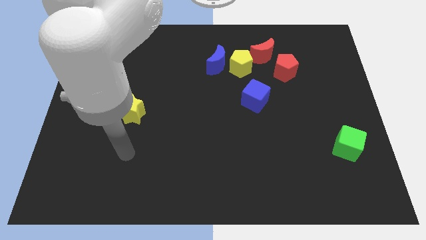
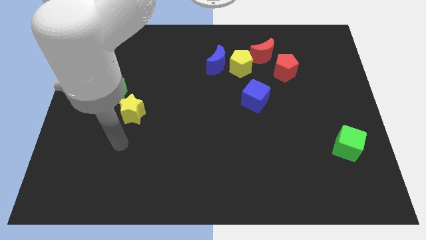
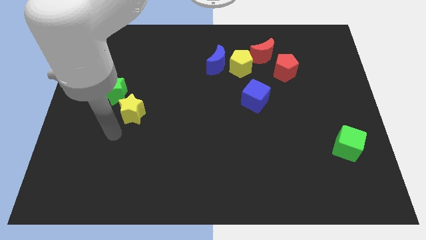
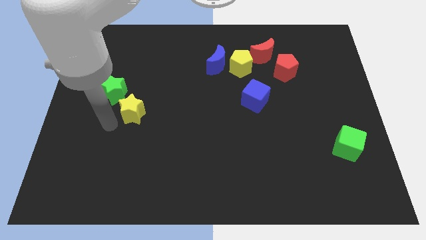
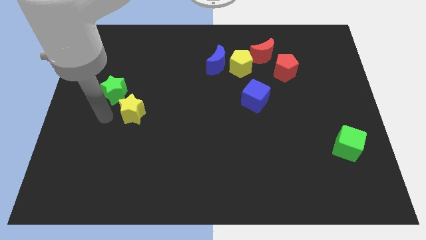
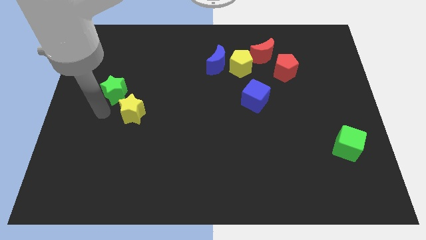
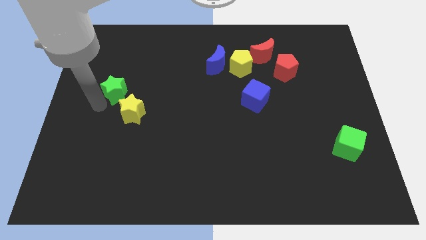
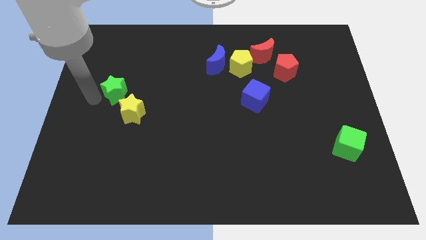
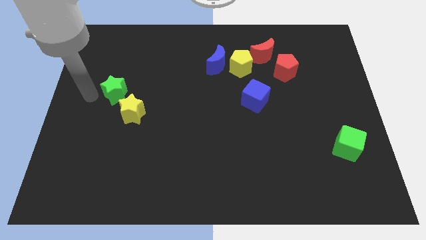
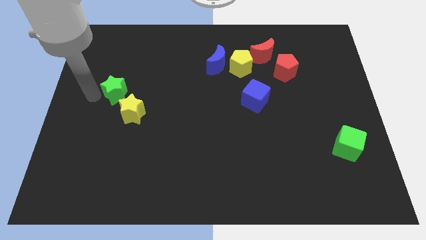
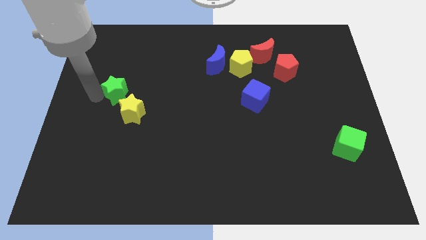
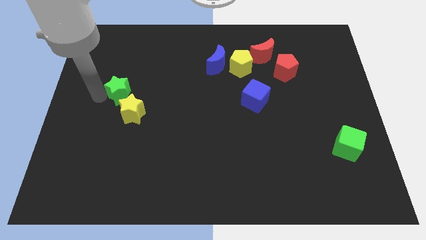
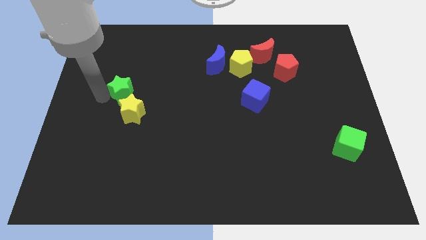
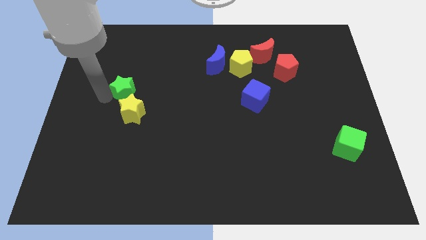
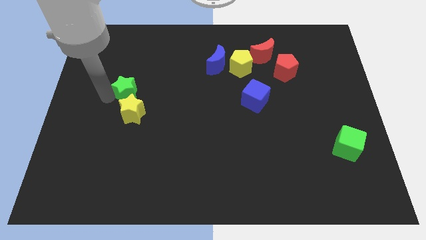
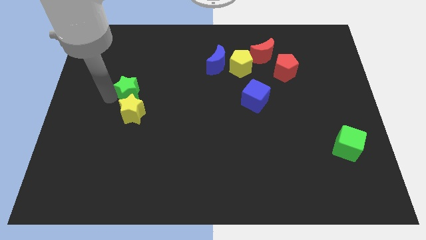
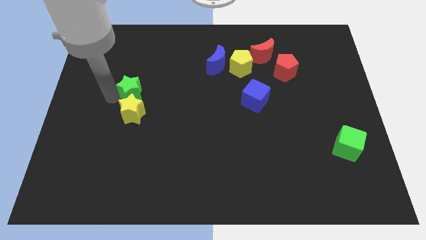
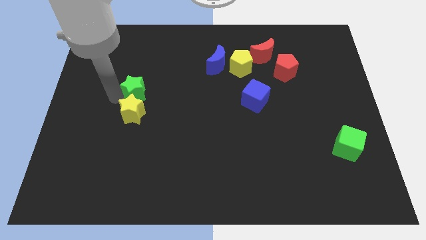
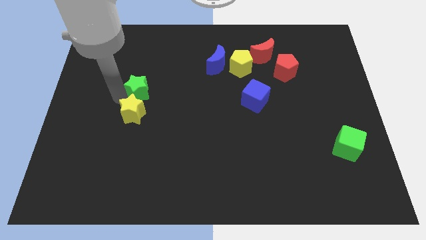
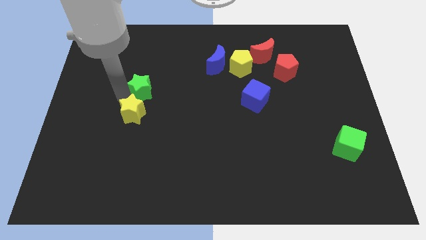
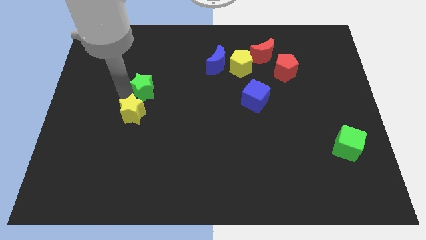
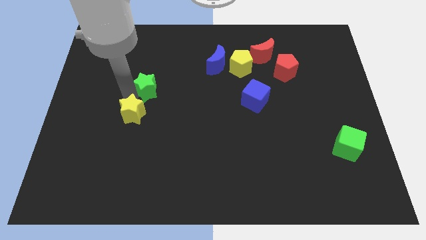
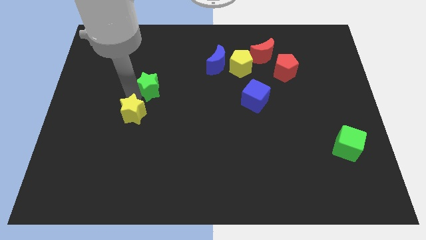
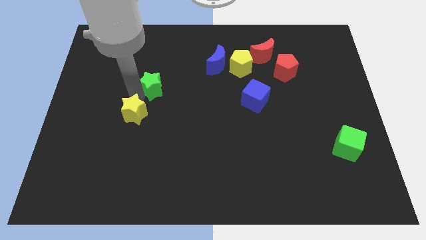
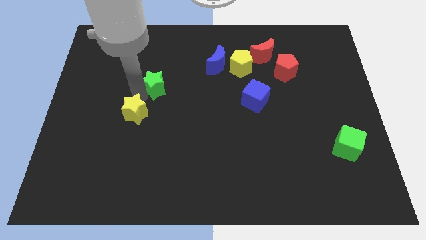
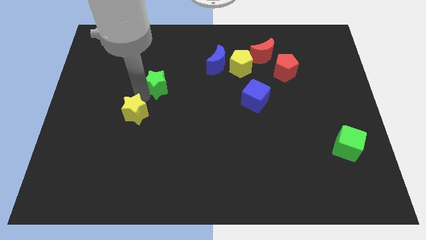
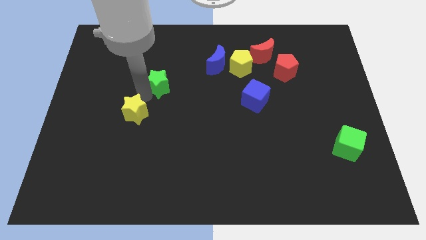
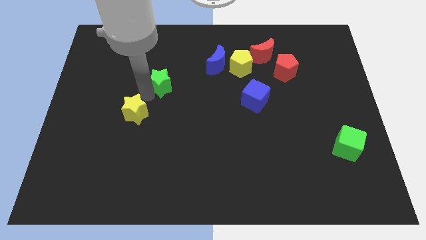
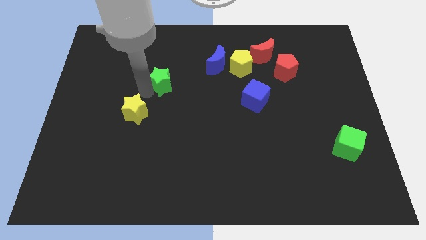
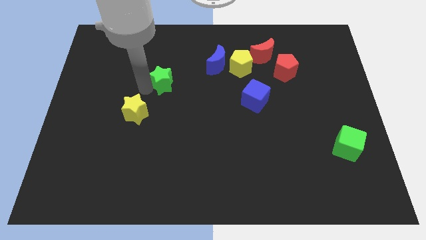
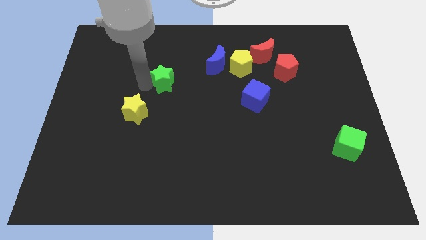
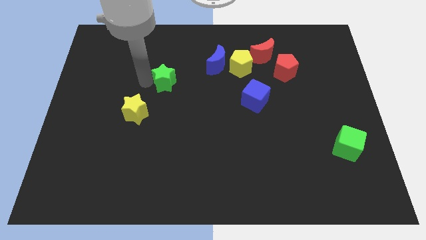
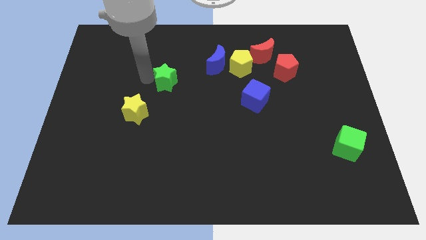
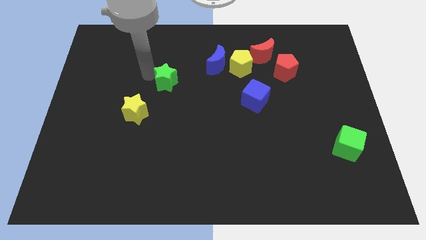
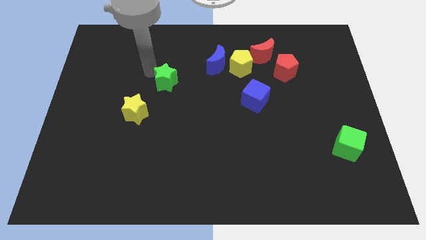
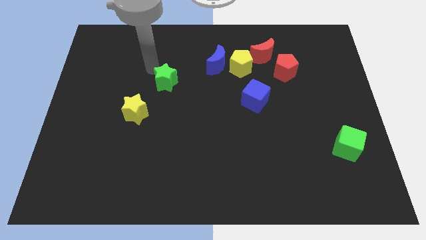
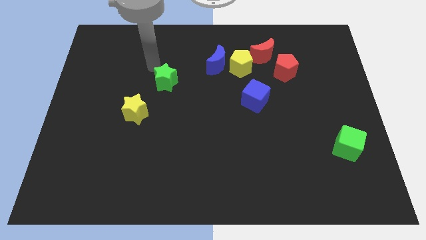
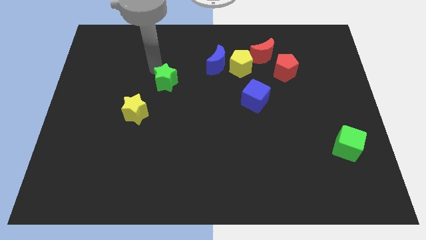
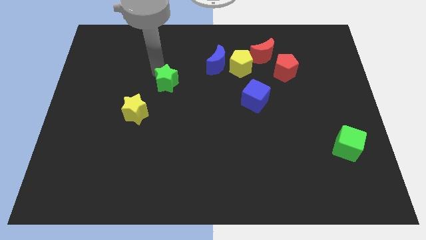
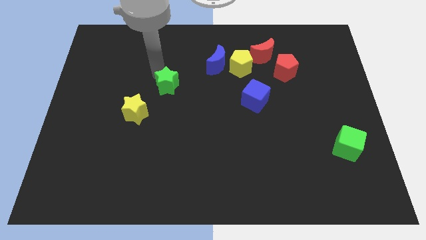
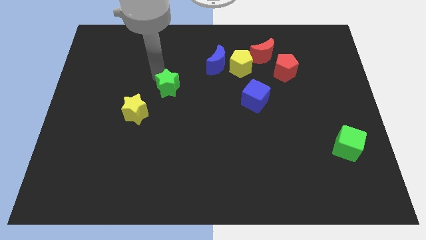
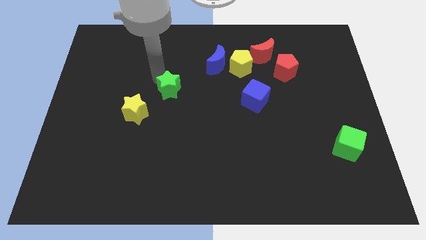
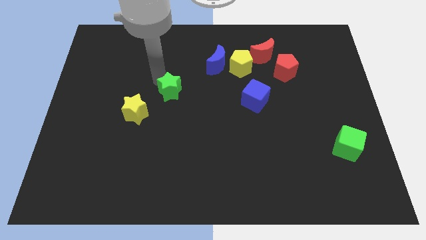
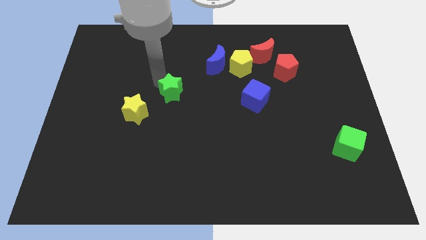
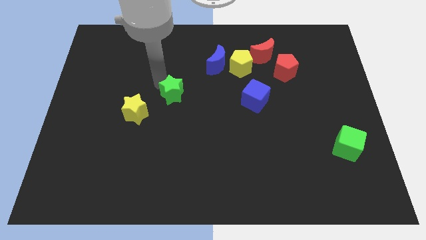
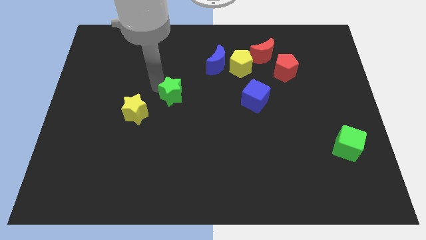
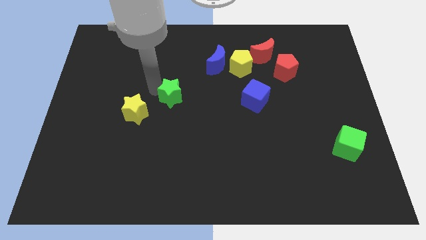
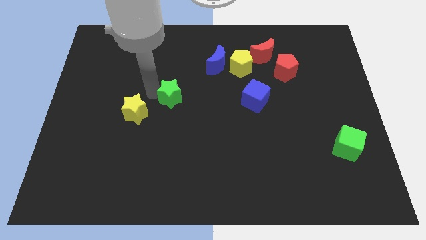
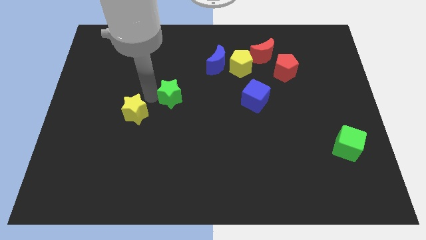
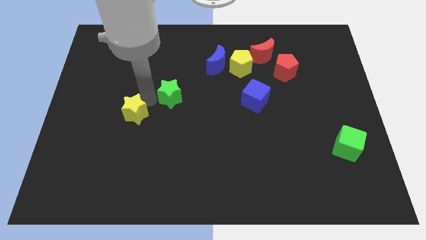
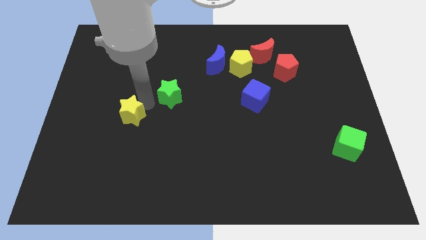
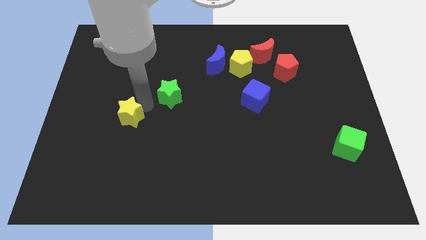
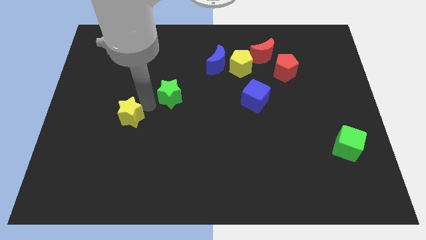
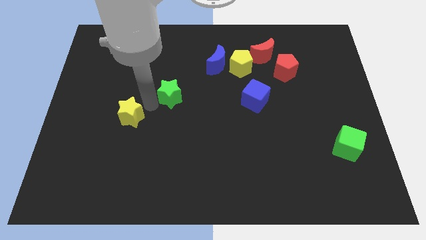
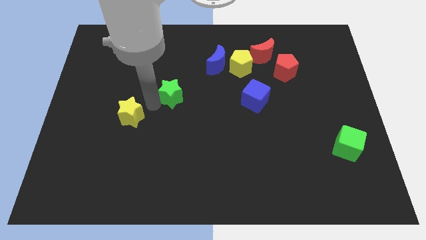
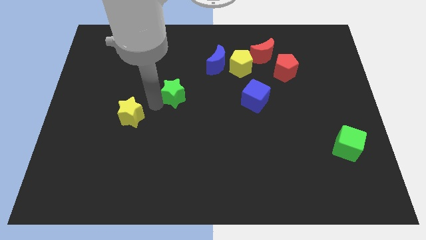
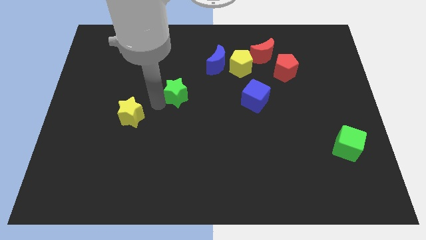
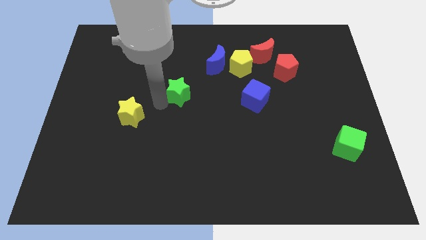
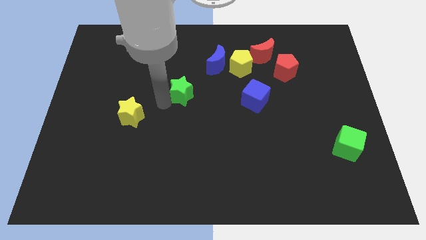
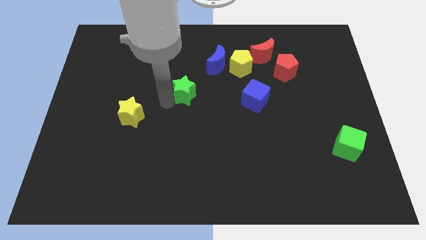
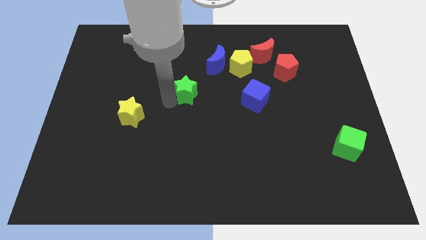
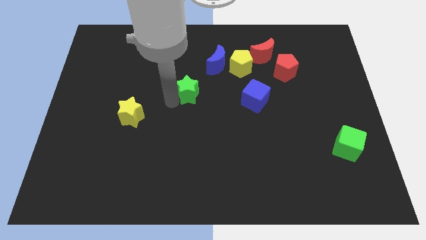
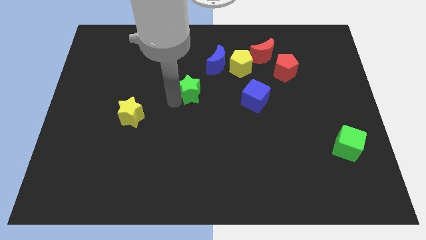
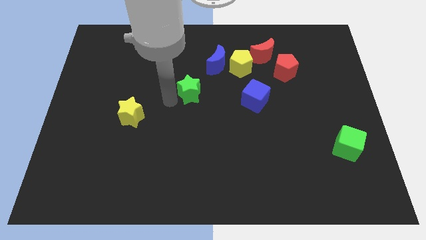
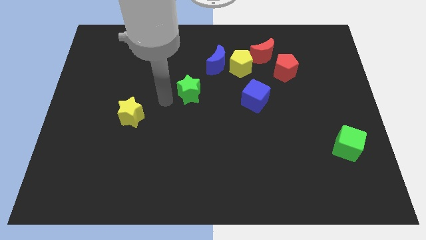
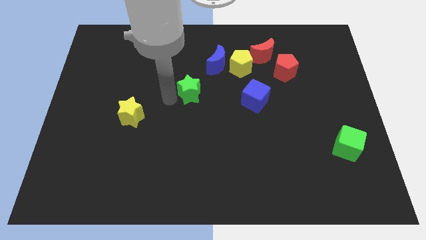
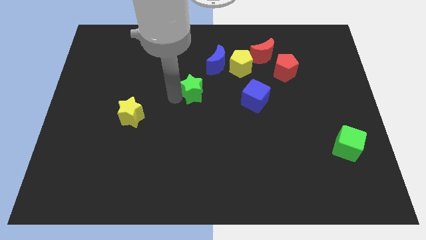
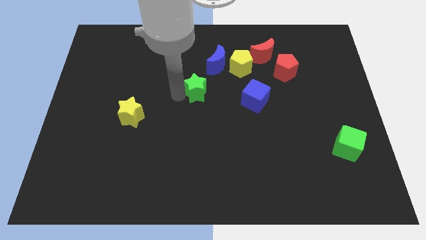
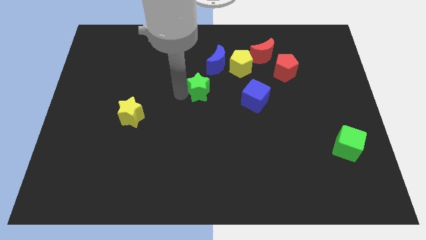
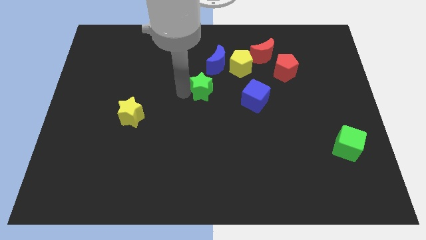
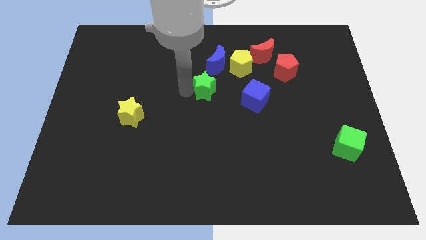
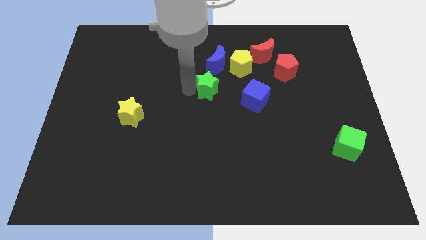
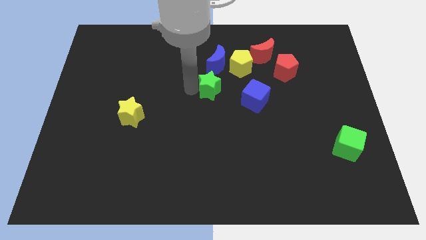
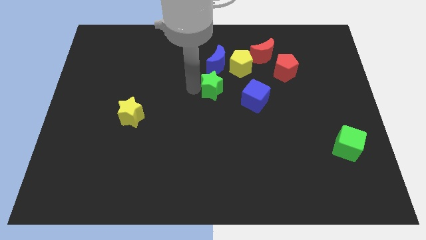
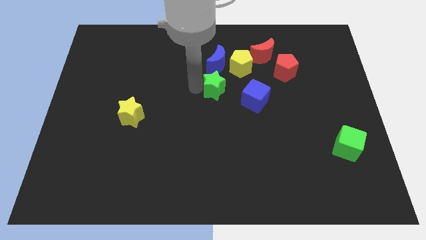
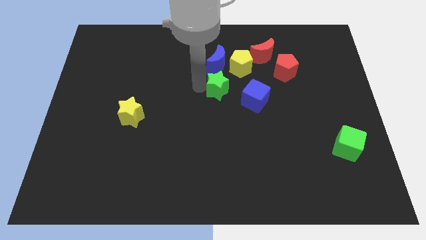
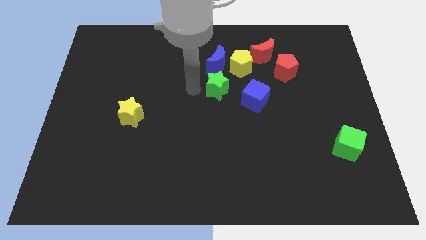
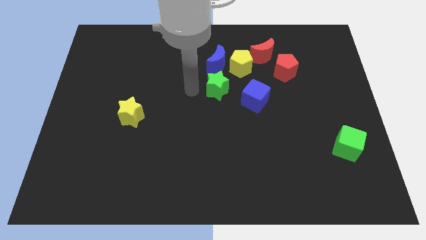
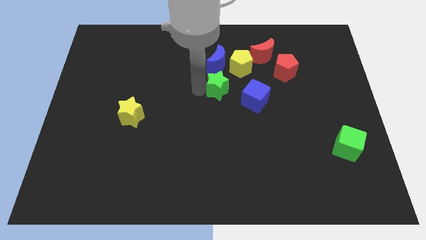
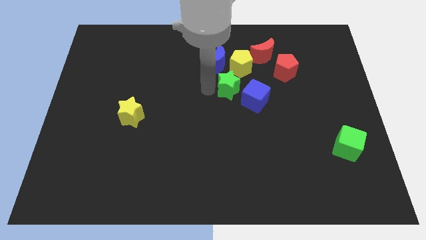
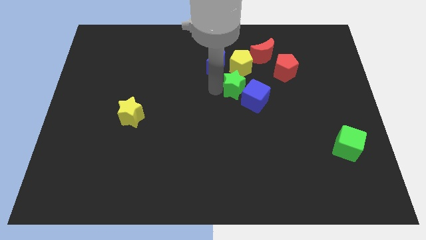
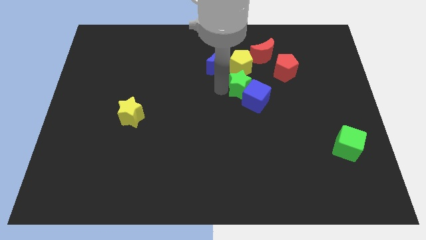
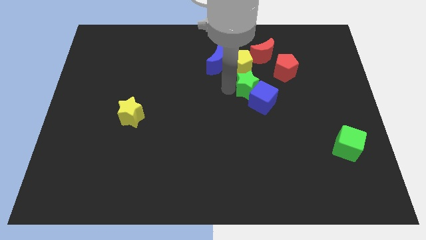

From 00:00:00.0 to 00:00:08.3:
put the green star diagonally down and to the left of the red pentagon
